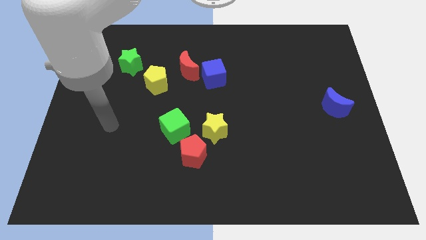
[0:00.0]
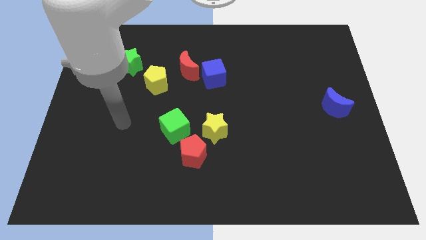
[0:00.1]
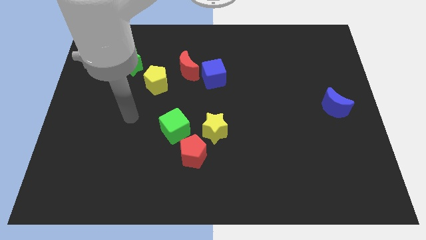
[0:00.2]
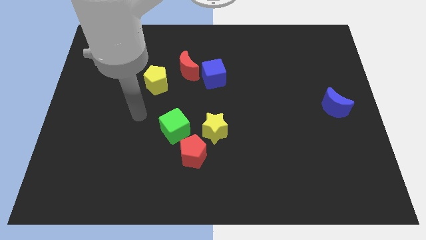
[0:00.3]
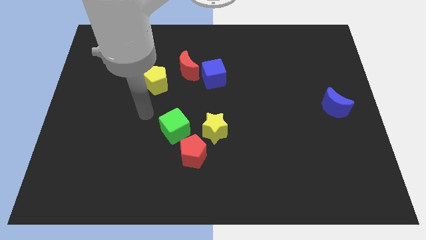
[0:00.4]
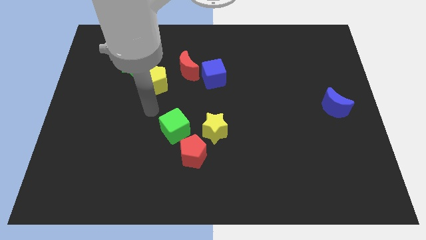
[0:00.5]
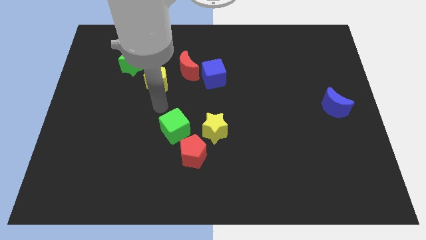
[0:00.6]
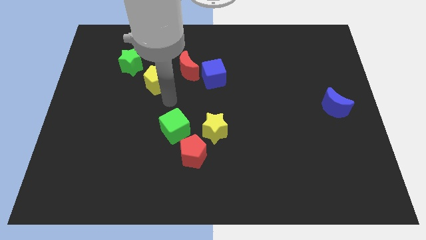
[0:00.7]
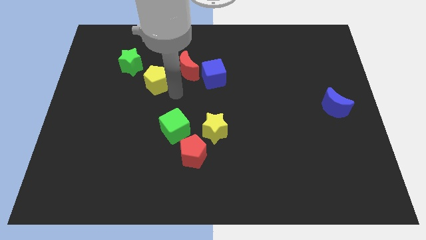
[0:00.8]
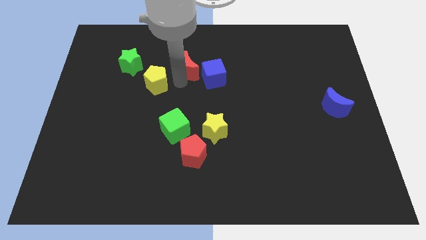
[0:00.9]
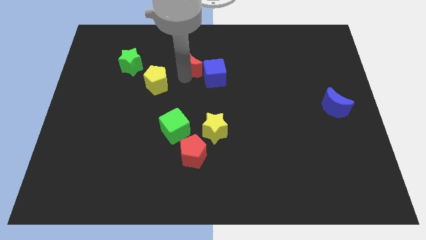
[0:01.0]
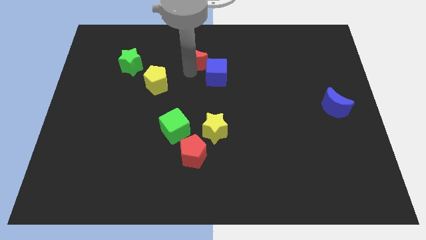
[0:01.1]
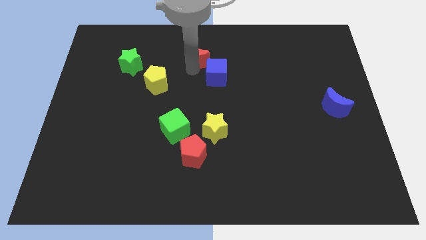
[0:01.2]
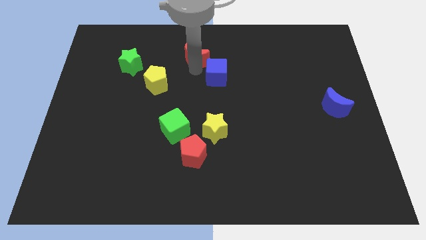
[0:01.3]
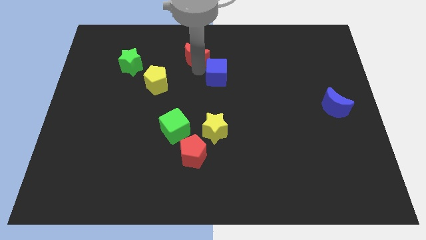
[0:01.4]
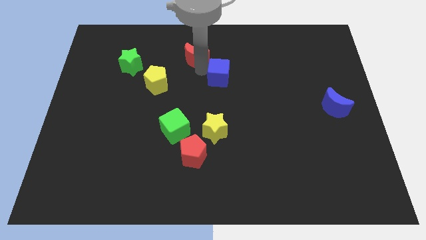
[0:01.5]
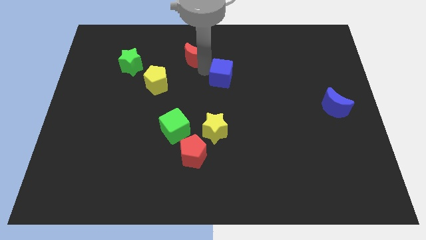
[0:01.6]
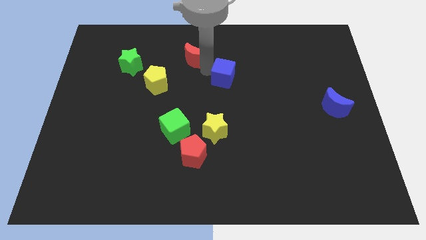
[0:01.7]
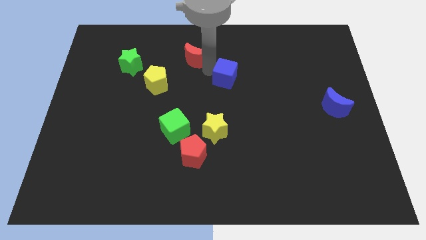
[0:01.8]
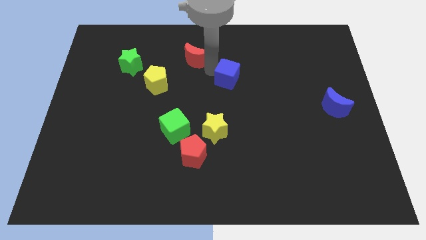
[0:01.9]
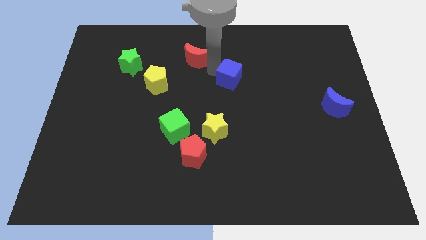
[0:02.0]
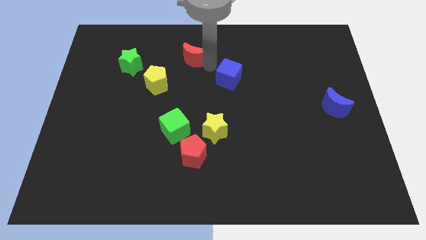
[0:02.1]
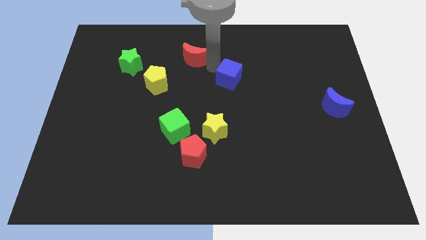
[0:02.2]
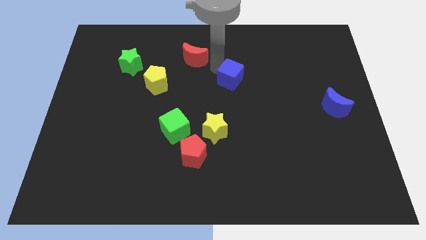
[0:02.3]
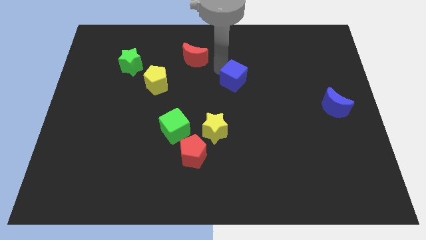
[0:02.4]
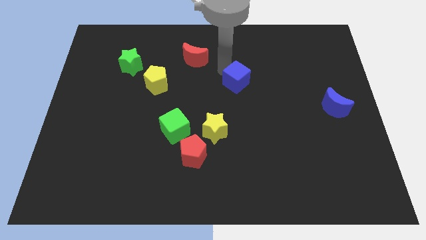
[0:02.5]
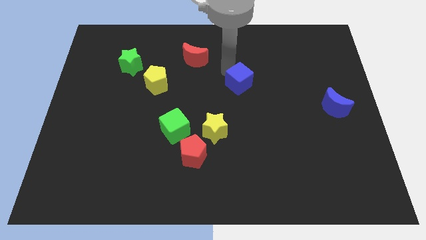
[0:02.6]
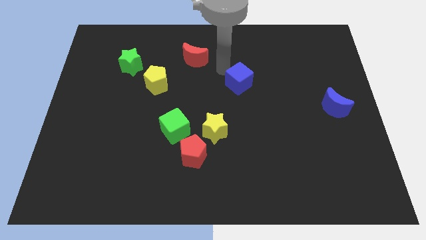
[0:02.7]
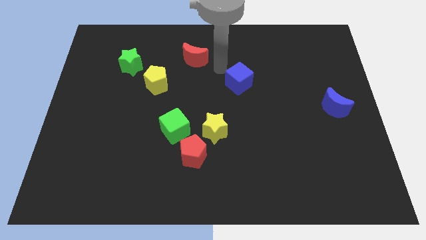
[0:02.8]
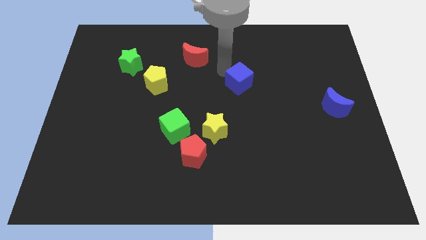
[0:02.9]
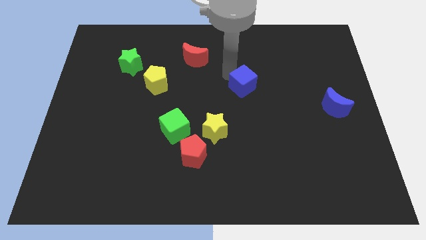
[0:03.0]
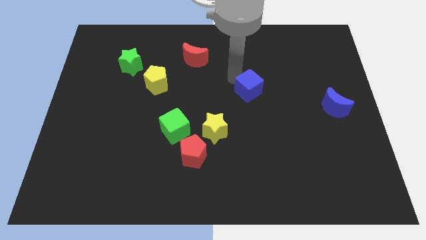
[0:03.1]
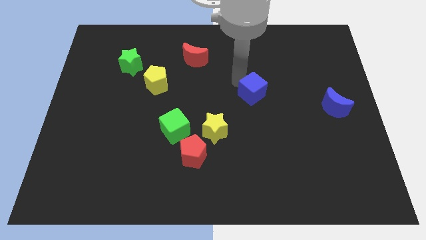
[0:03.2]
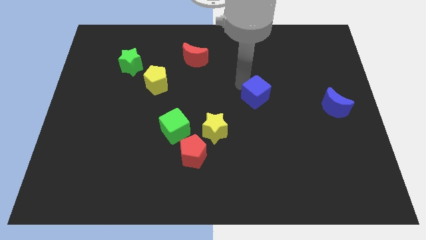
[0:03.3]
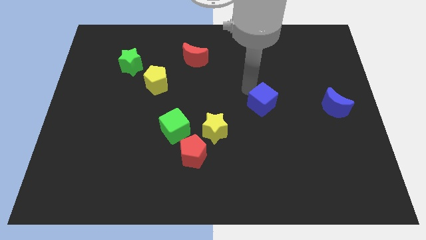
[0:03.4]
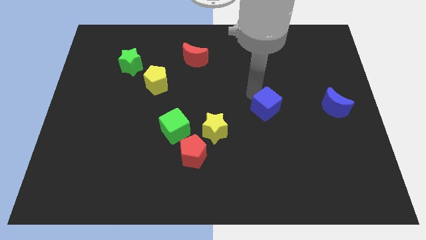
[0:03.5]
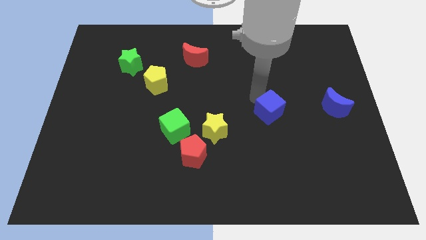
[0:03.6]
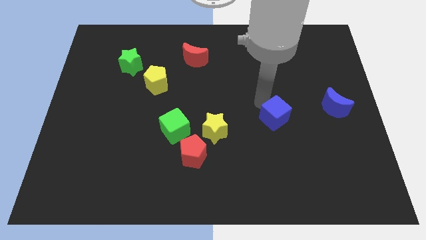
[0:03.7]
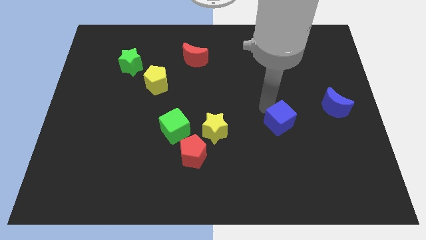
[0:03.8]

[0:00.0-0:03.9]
slide the blue cube downwards and right

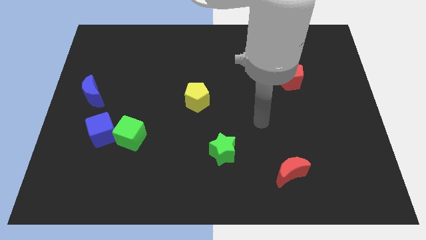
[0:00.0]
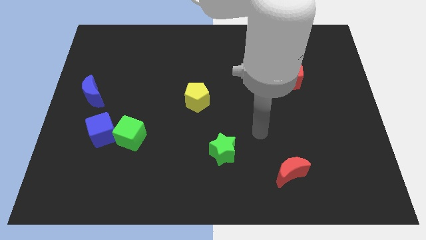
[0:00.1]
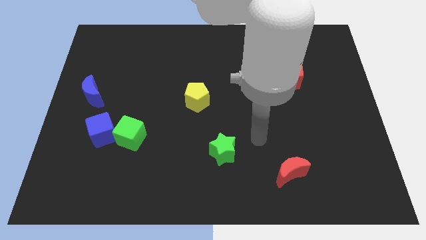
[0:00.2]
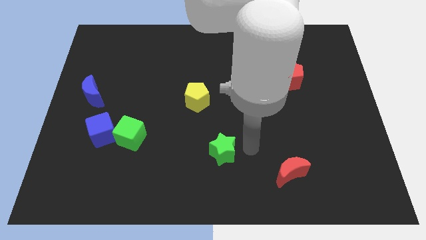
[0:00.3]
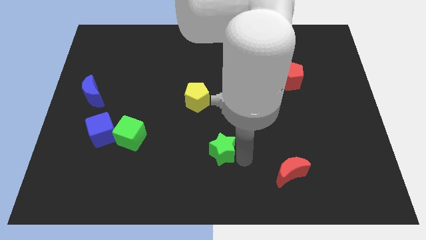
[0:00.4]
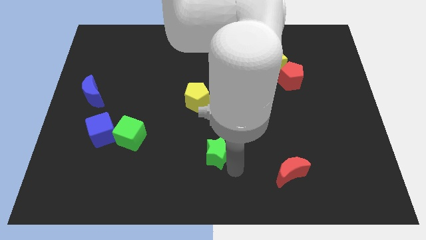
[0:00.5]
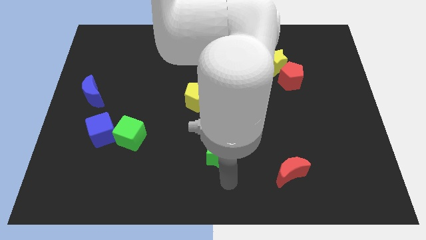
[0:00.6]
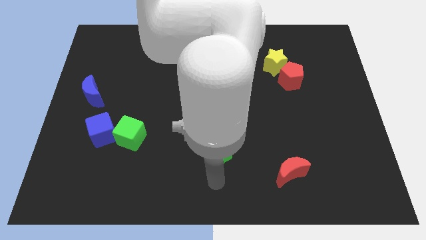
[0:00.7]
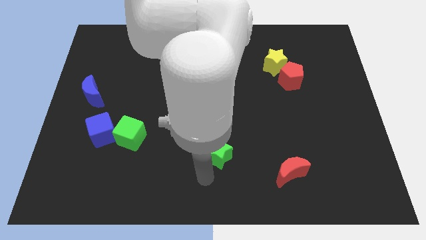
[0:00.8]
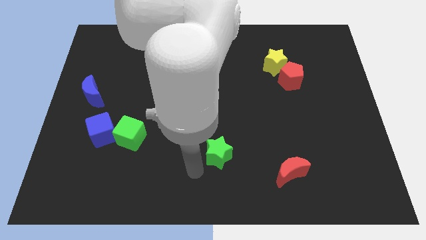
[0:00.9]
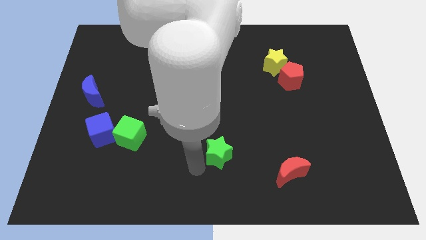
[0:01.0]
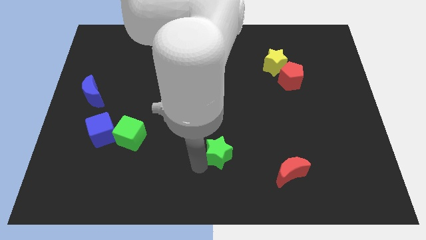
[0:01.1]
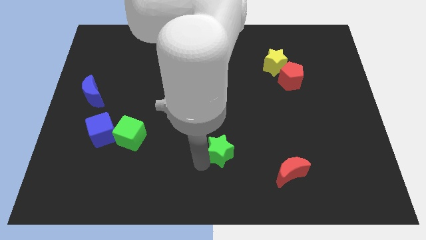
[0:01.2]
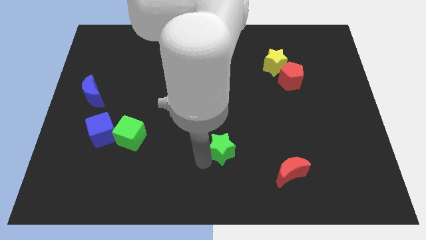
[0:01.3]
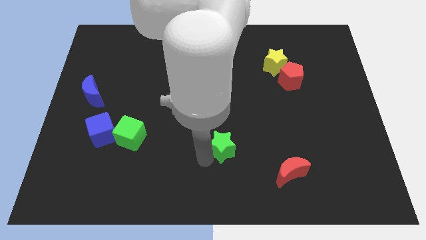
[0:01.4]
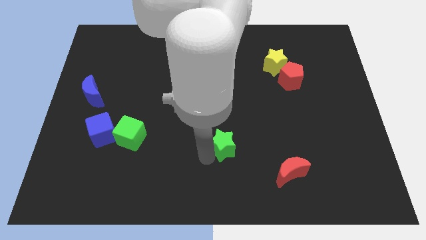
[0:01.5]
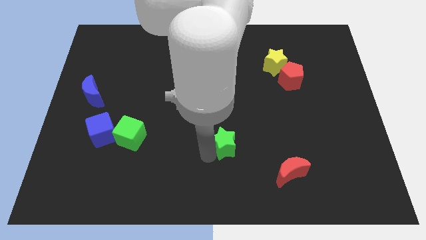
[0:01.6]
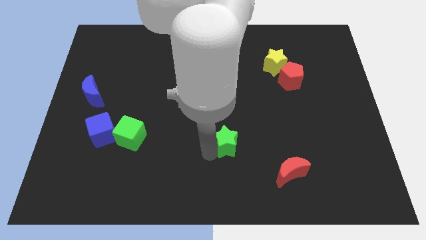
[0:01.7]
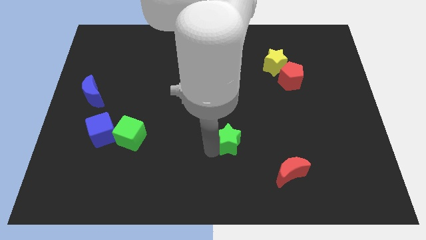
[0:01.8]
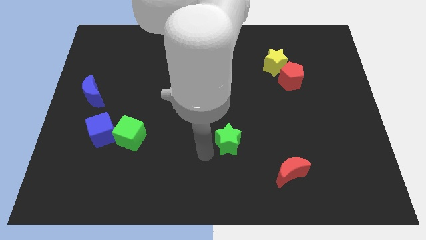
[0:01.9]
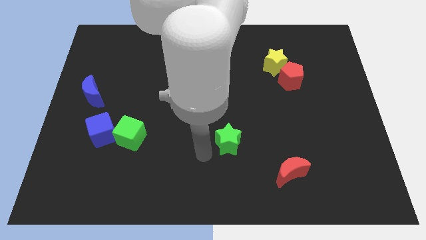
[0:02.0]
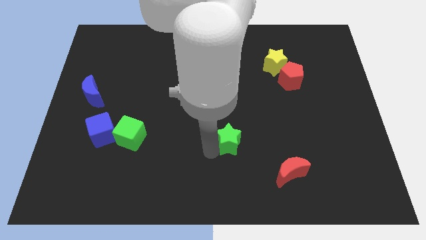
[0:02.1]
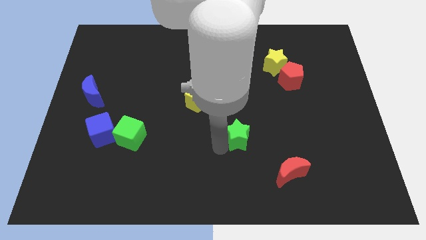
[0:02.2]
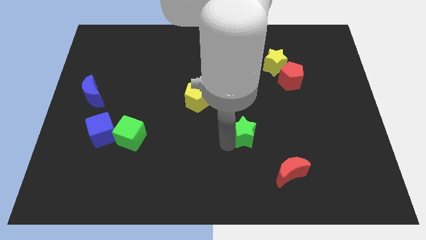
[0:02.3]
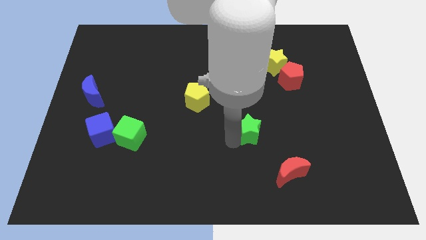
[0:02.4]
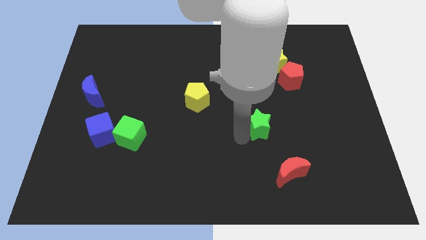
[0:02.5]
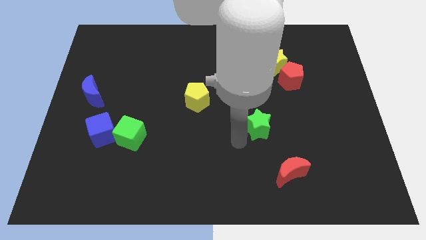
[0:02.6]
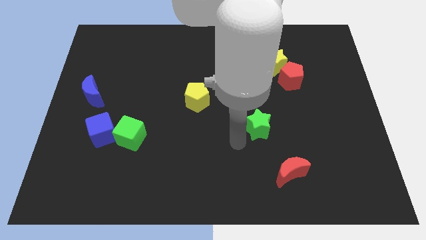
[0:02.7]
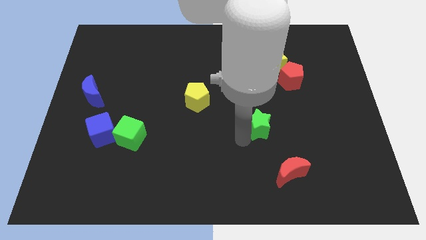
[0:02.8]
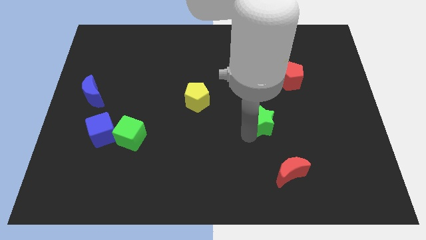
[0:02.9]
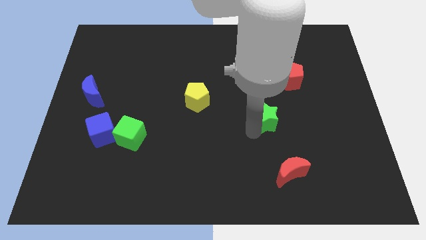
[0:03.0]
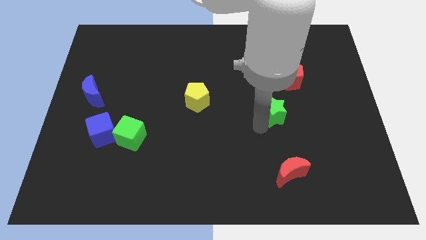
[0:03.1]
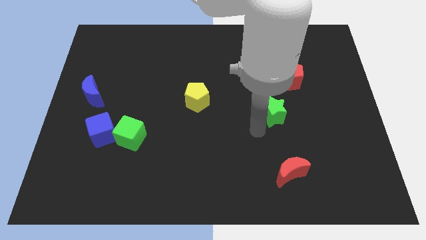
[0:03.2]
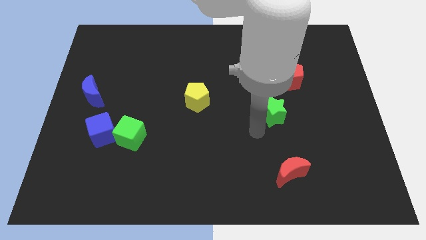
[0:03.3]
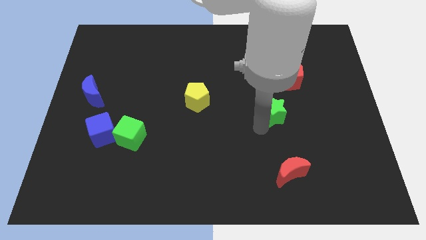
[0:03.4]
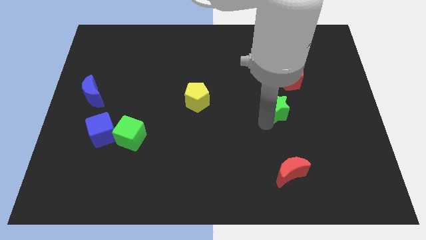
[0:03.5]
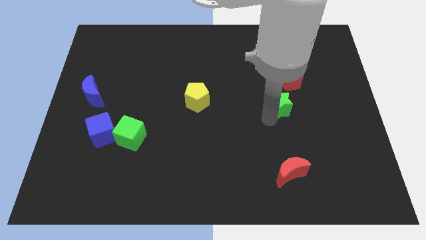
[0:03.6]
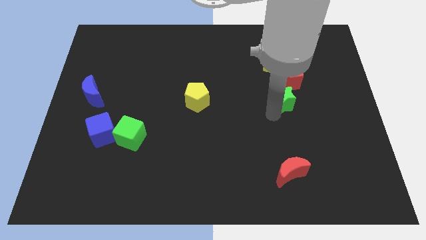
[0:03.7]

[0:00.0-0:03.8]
move the green star diagonally up and right
